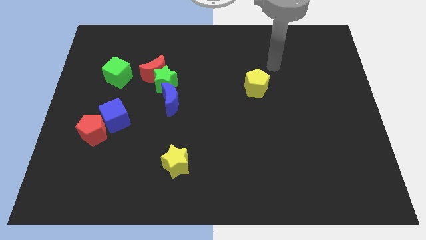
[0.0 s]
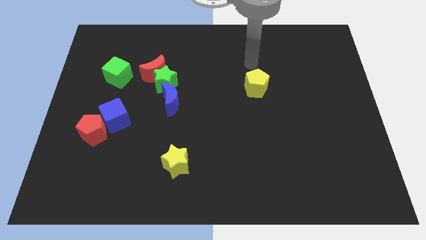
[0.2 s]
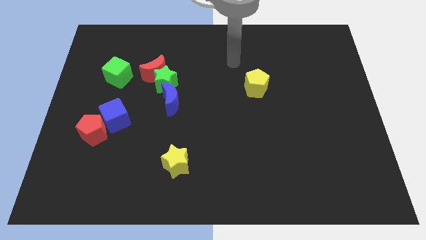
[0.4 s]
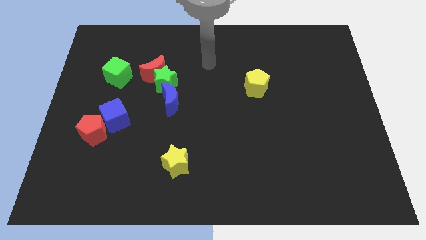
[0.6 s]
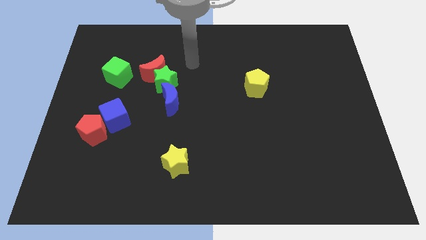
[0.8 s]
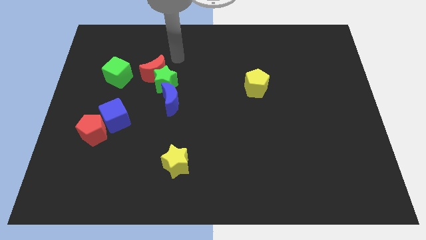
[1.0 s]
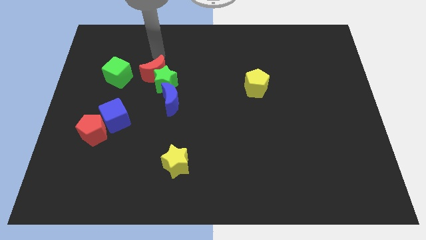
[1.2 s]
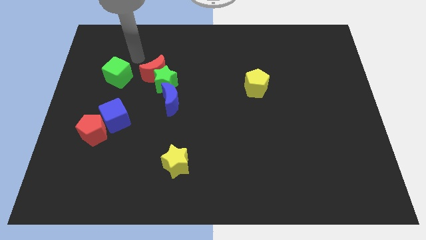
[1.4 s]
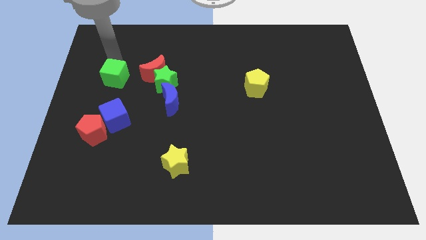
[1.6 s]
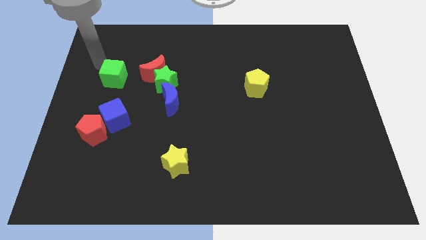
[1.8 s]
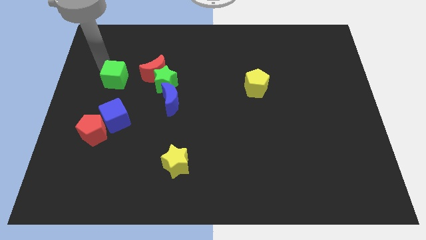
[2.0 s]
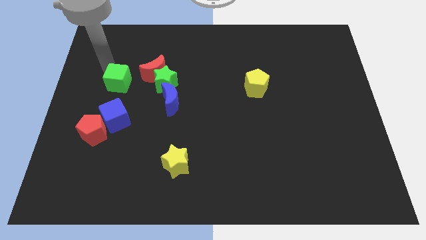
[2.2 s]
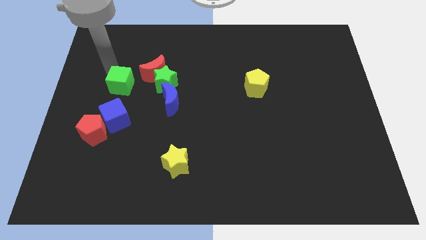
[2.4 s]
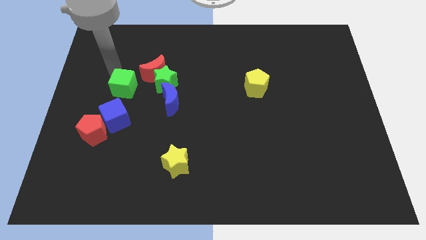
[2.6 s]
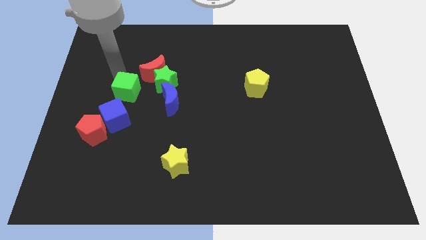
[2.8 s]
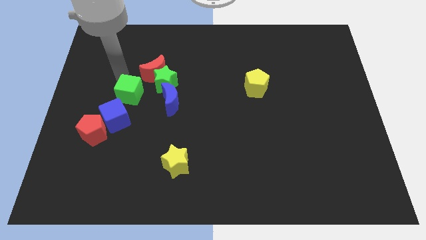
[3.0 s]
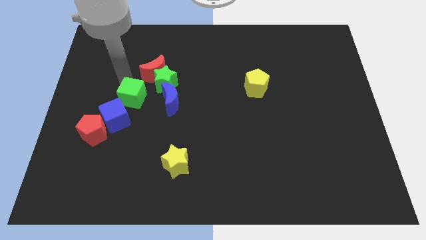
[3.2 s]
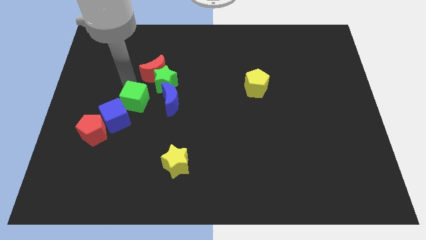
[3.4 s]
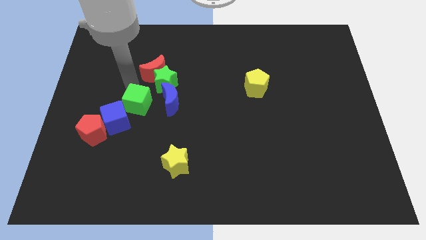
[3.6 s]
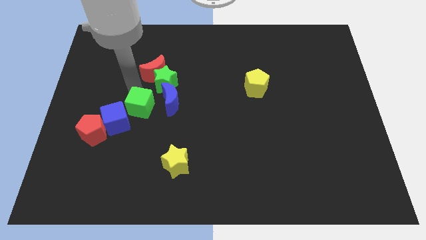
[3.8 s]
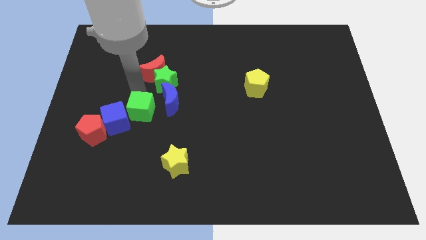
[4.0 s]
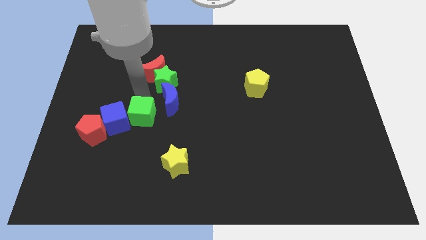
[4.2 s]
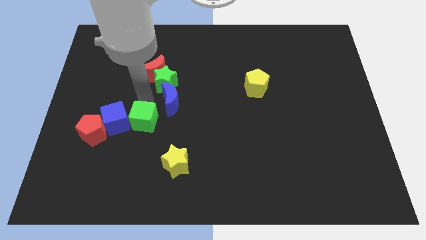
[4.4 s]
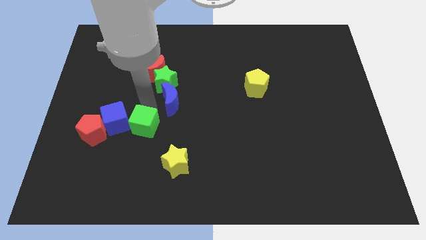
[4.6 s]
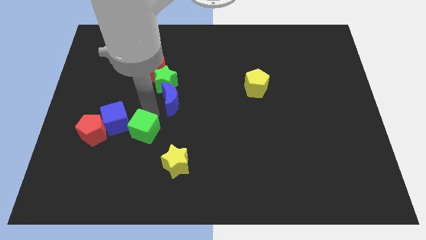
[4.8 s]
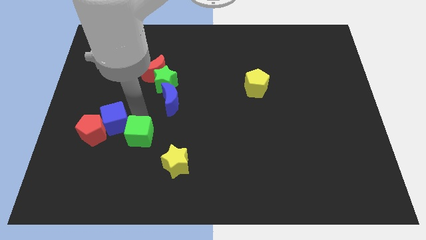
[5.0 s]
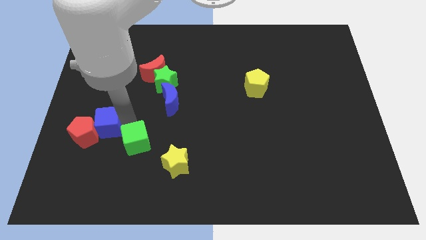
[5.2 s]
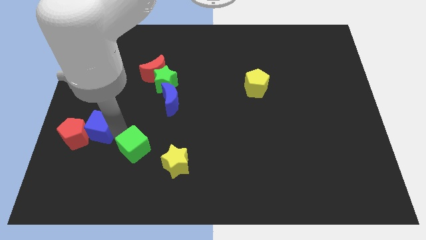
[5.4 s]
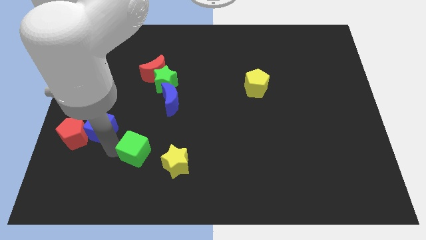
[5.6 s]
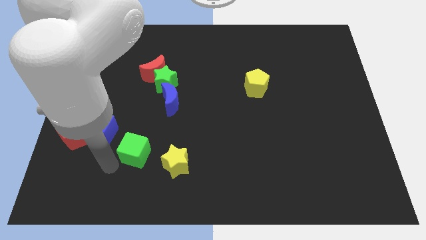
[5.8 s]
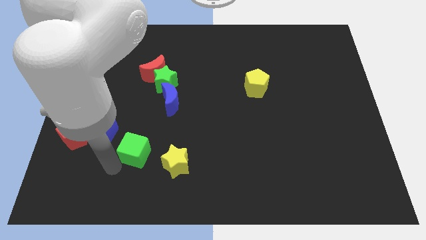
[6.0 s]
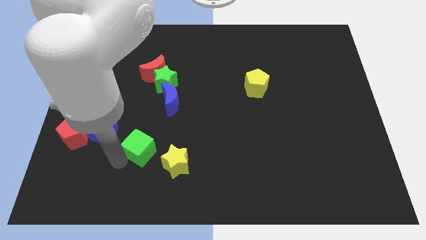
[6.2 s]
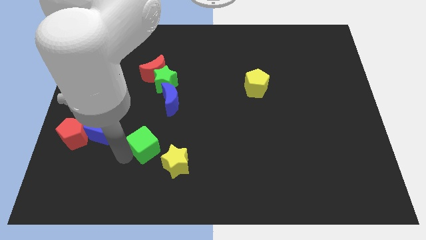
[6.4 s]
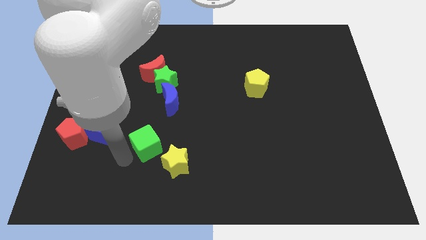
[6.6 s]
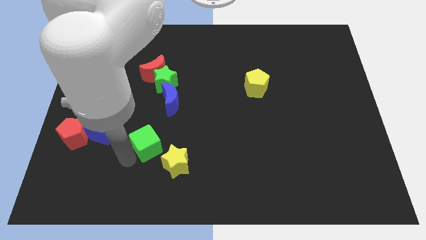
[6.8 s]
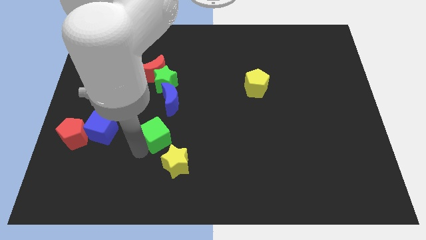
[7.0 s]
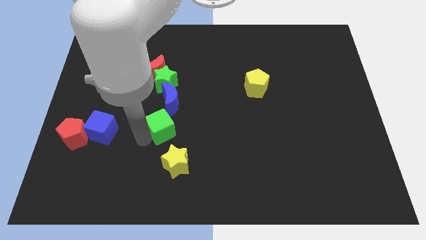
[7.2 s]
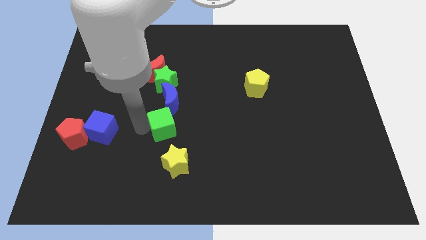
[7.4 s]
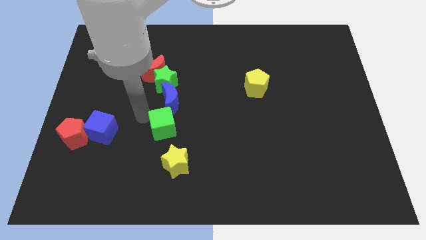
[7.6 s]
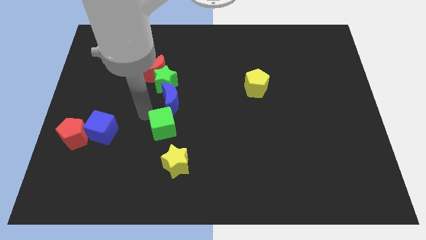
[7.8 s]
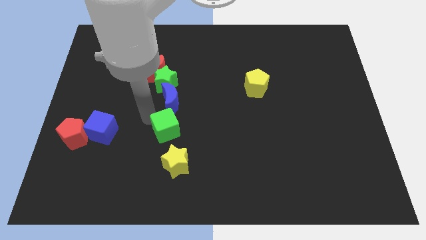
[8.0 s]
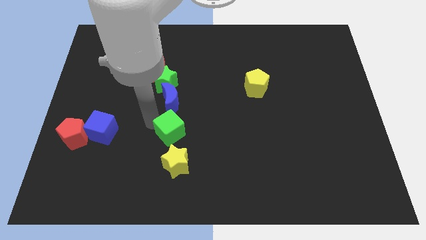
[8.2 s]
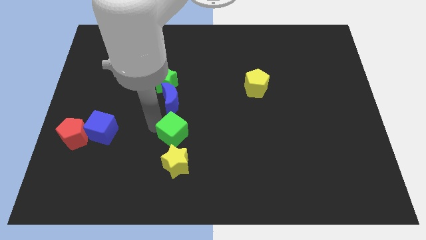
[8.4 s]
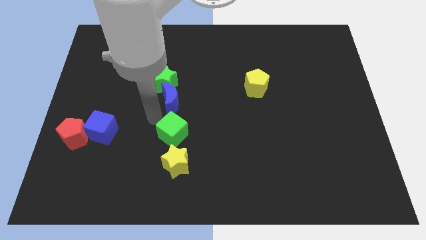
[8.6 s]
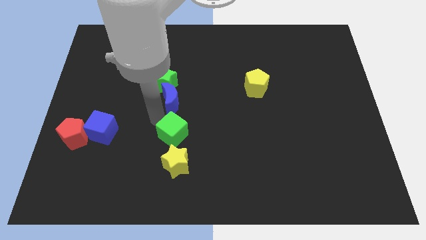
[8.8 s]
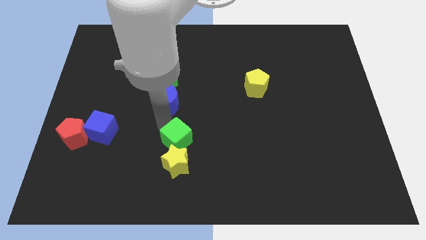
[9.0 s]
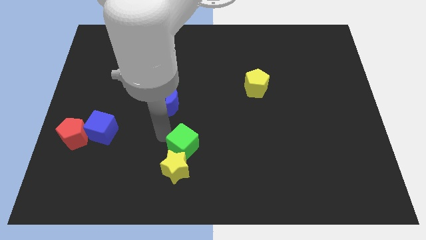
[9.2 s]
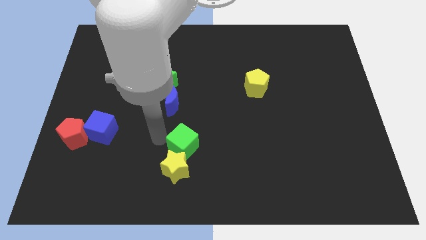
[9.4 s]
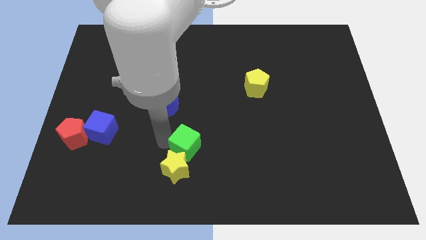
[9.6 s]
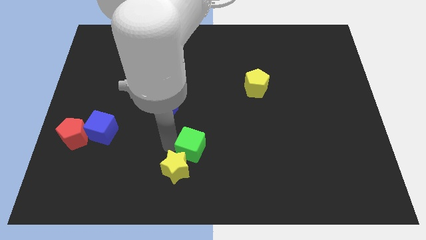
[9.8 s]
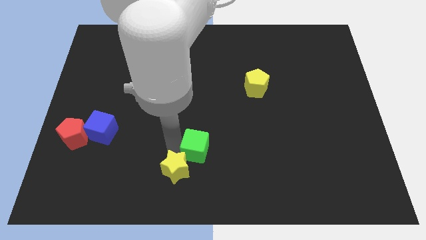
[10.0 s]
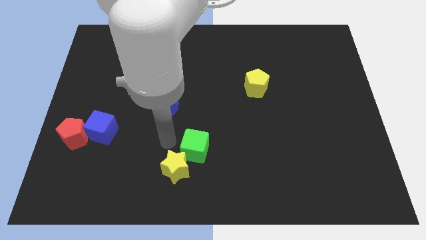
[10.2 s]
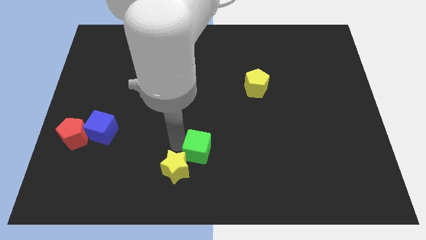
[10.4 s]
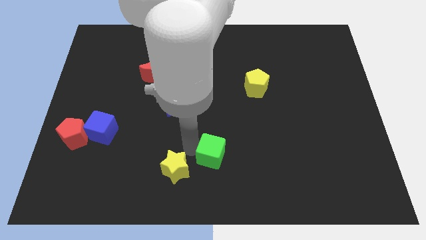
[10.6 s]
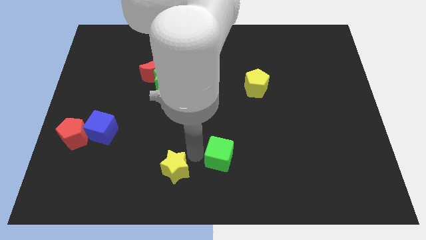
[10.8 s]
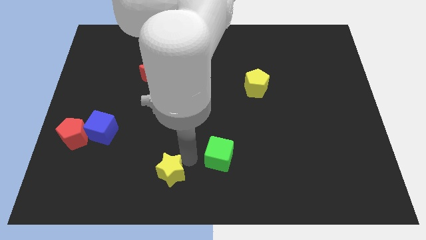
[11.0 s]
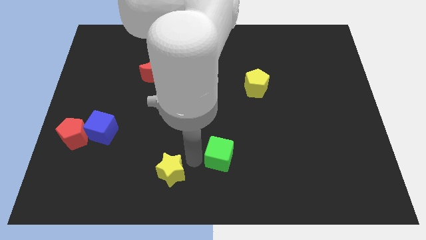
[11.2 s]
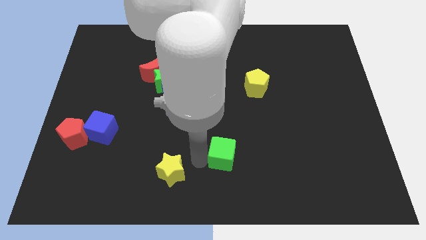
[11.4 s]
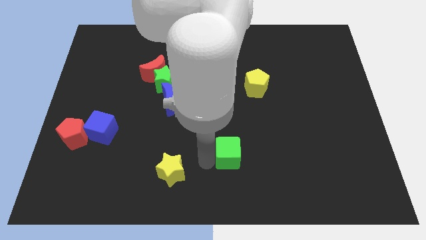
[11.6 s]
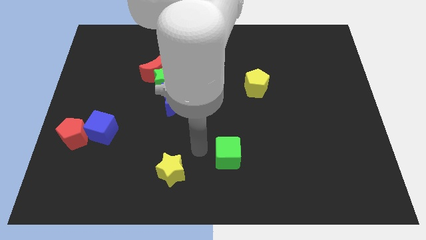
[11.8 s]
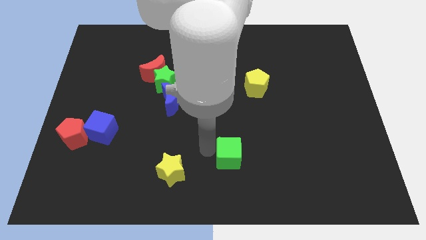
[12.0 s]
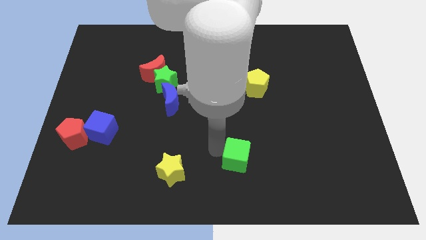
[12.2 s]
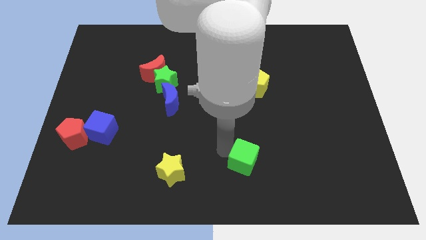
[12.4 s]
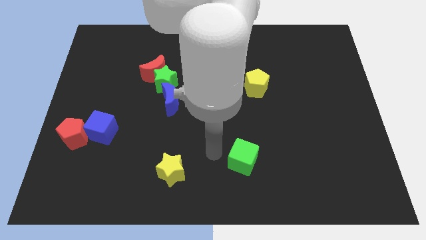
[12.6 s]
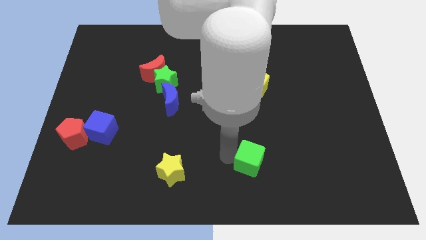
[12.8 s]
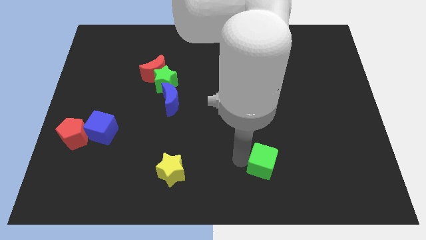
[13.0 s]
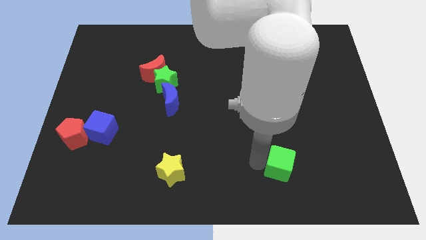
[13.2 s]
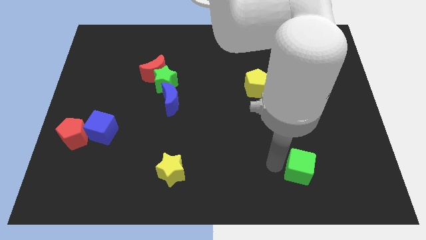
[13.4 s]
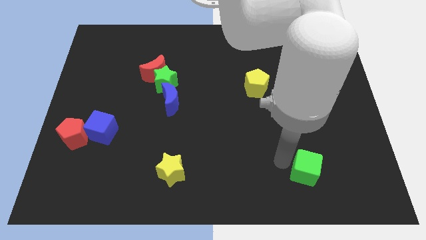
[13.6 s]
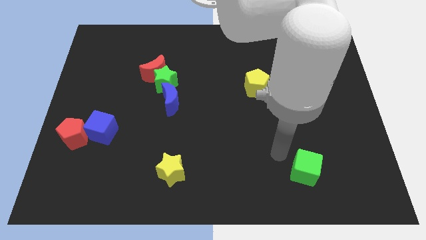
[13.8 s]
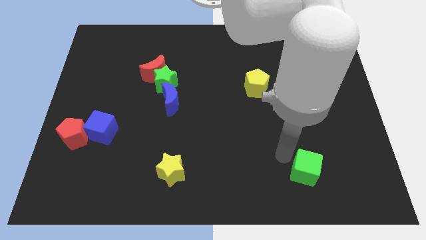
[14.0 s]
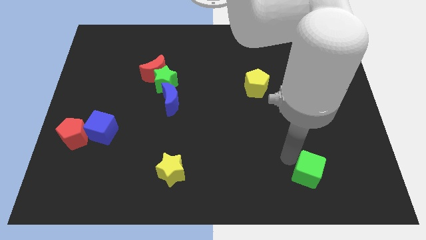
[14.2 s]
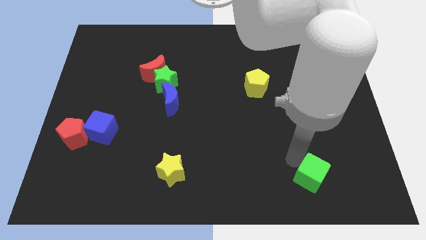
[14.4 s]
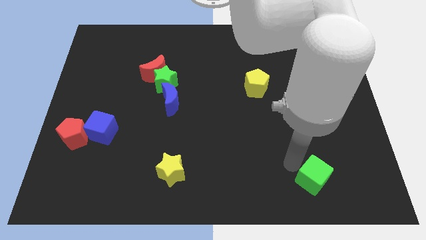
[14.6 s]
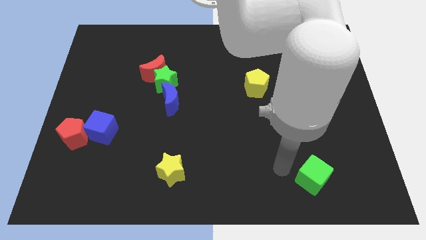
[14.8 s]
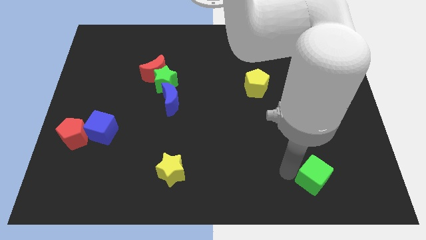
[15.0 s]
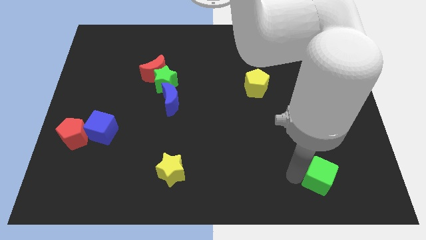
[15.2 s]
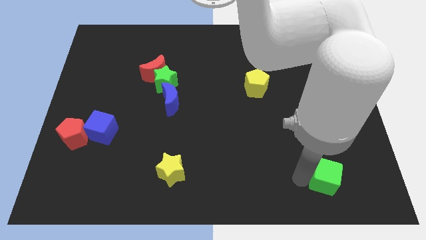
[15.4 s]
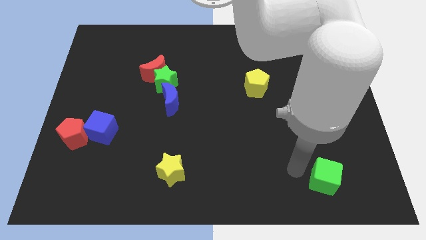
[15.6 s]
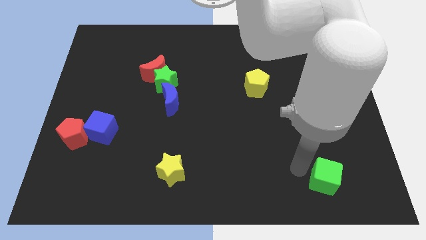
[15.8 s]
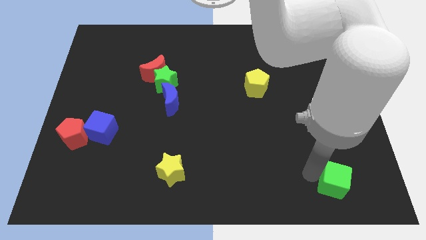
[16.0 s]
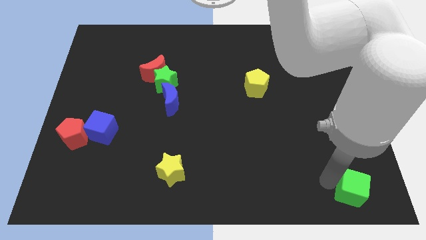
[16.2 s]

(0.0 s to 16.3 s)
move the green cube to the bottom right
